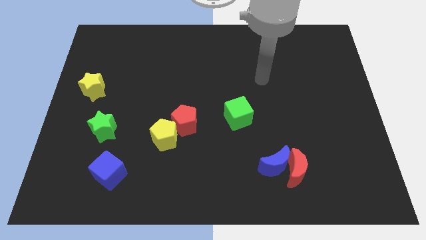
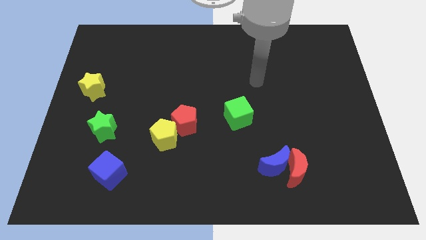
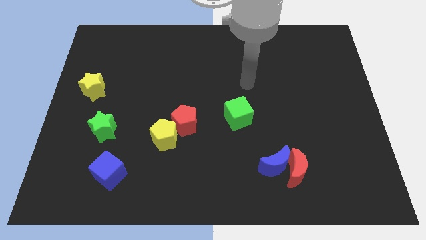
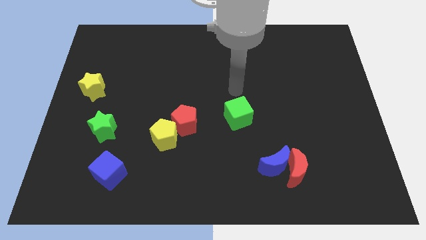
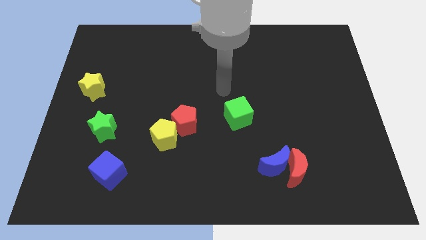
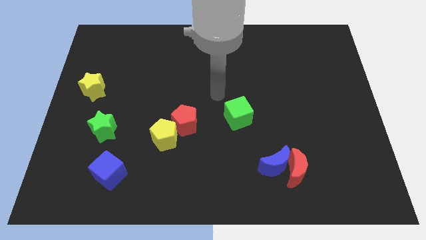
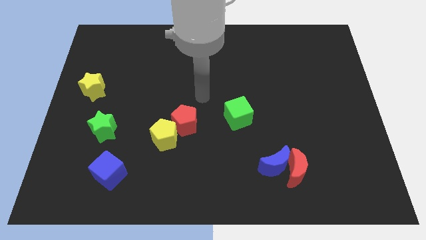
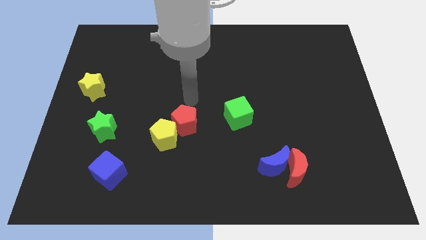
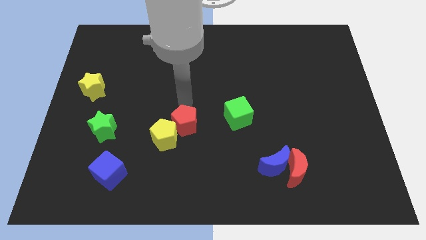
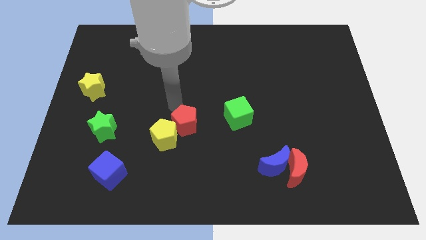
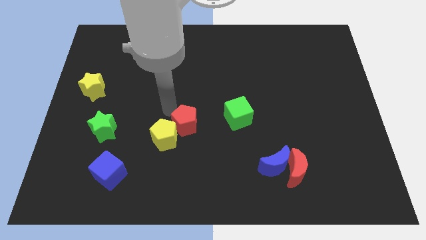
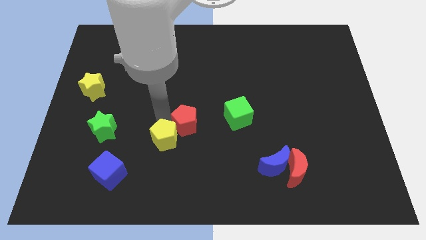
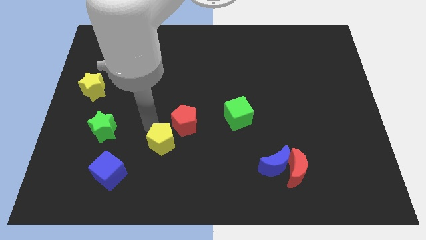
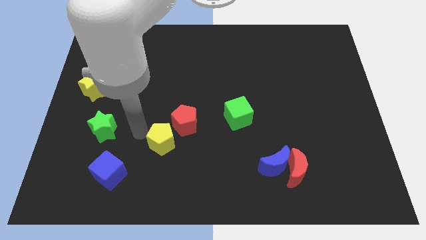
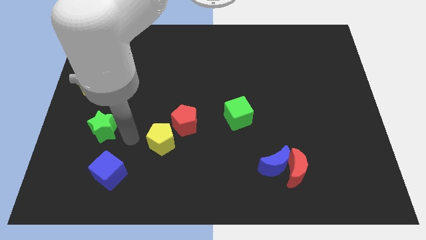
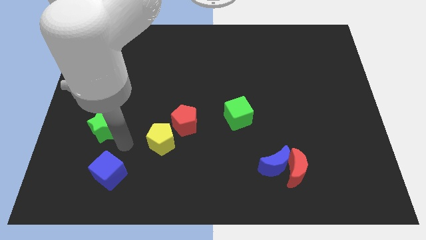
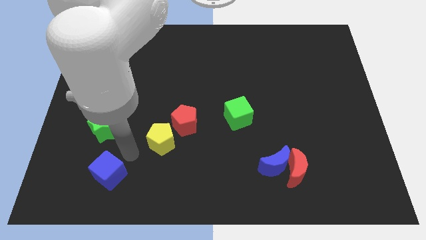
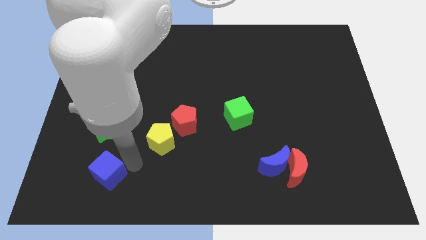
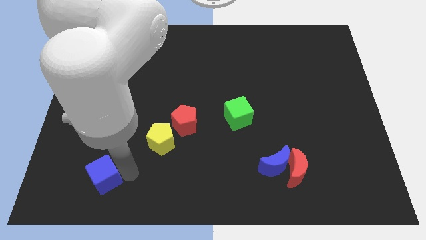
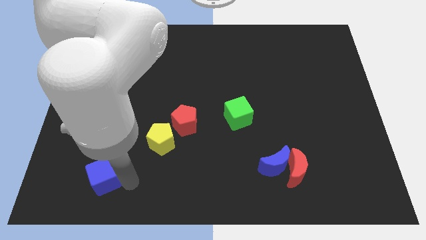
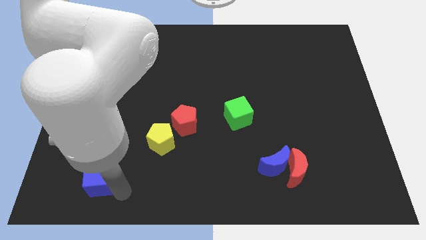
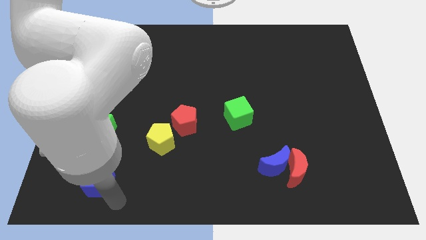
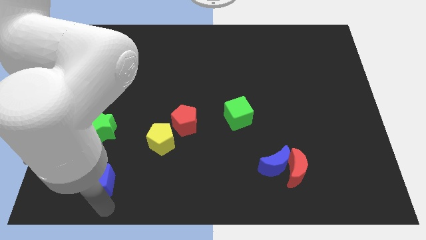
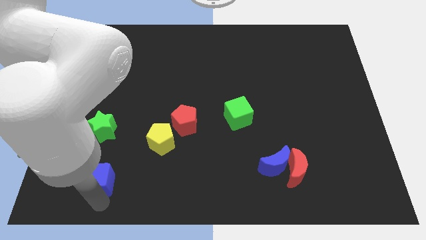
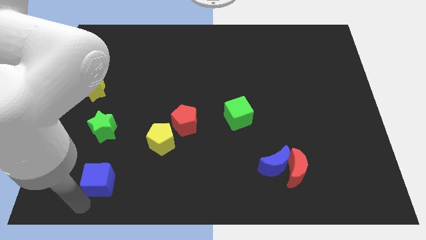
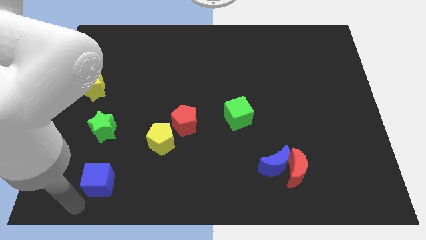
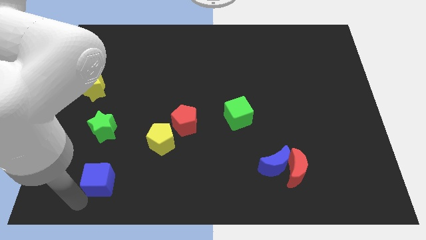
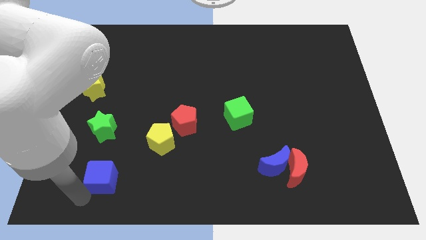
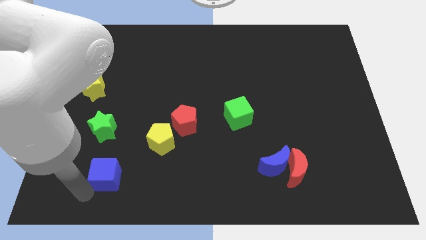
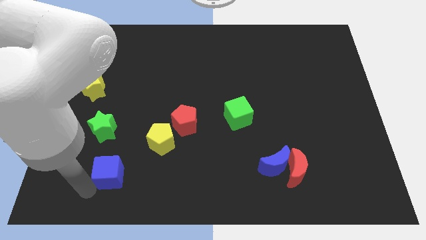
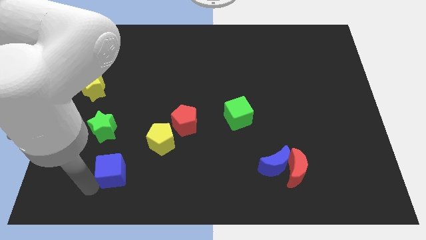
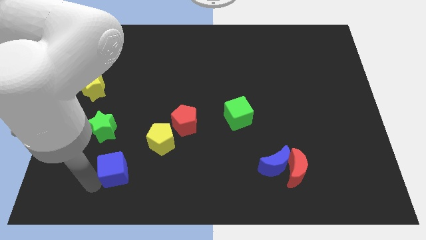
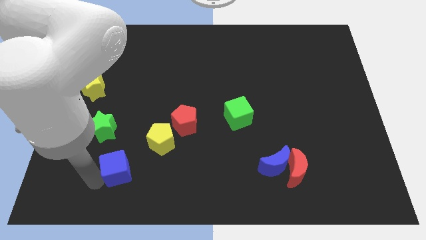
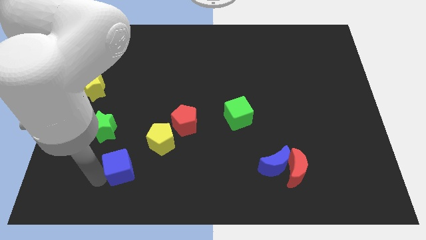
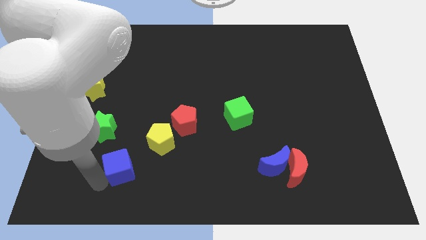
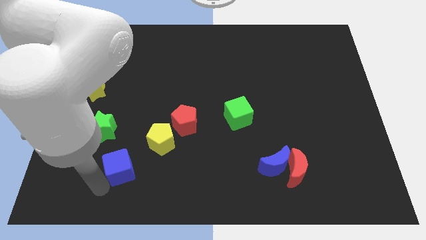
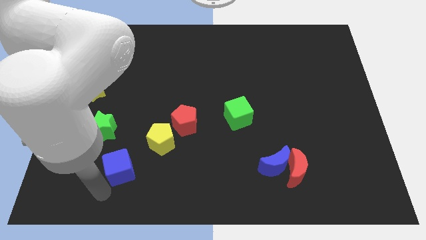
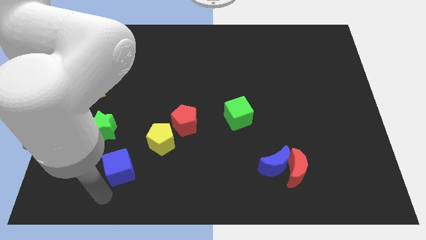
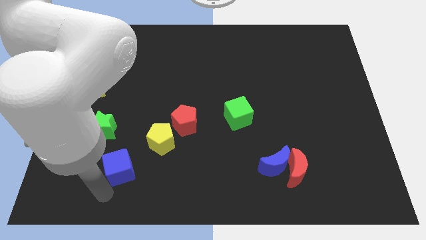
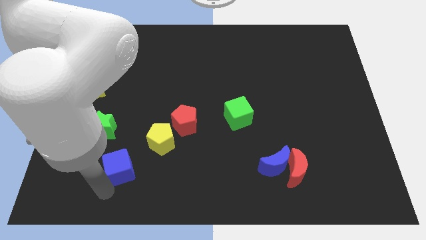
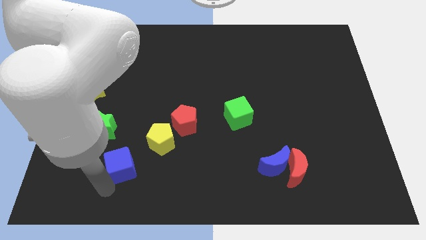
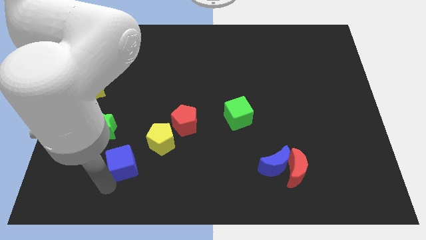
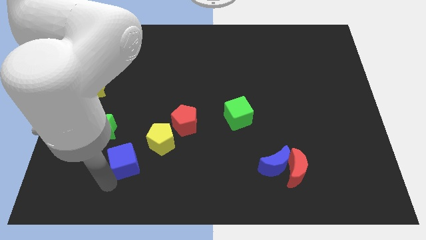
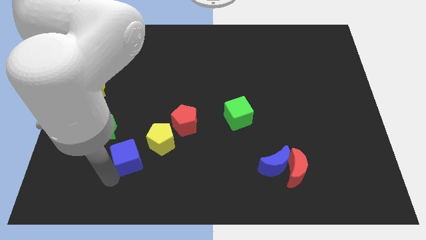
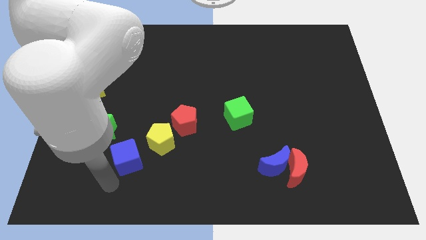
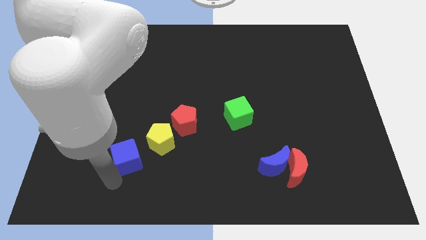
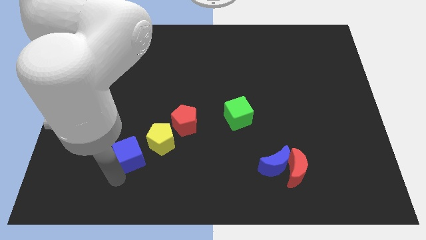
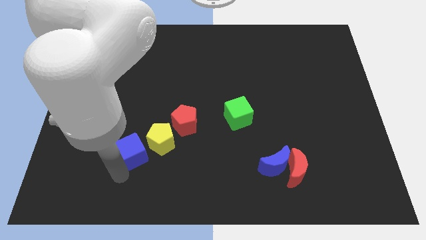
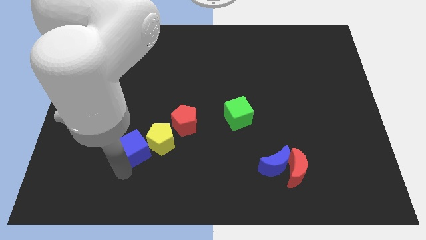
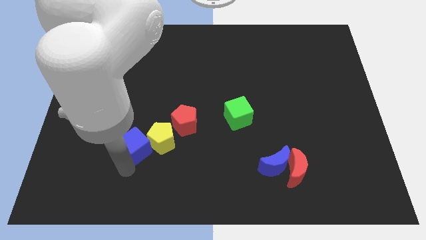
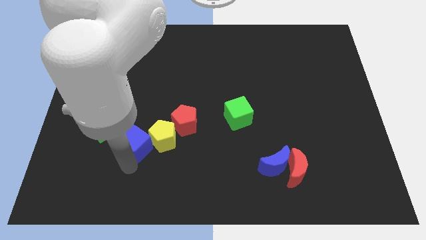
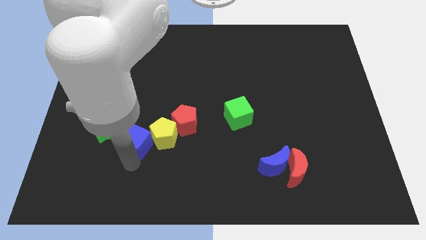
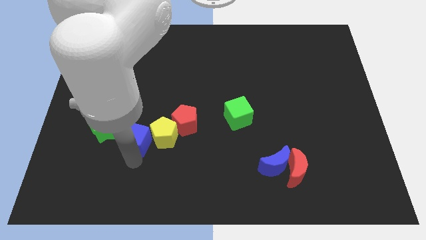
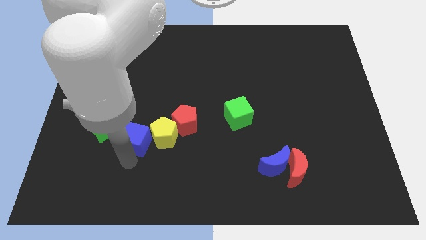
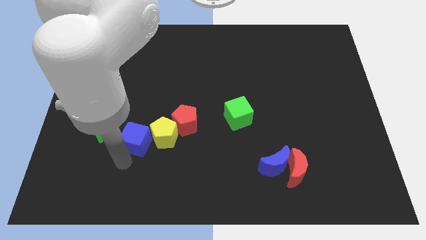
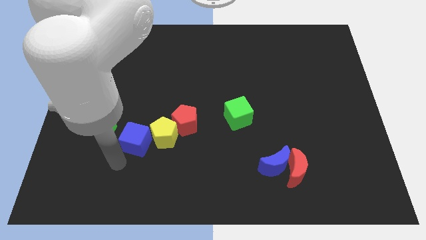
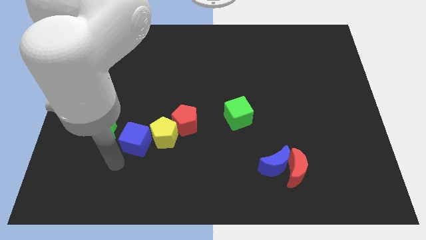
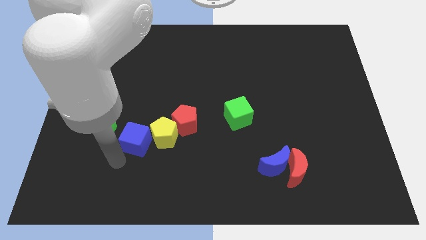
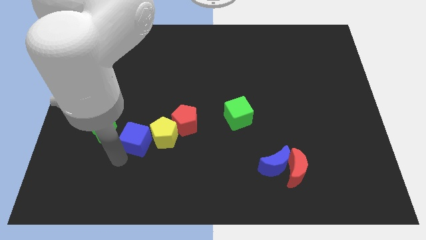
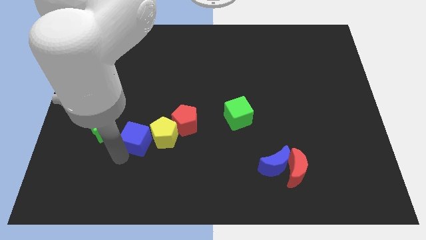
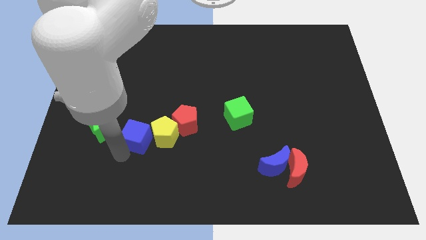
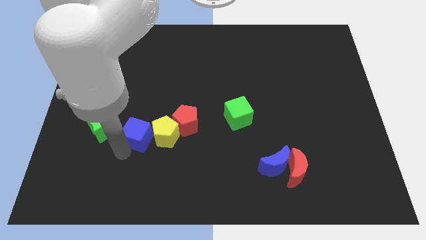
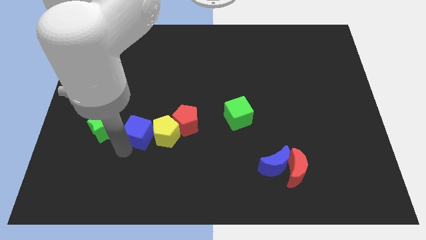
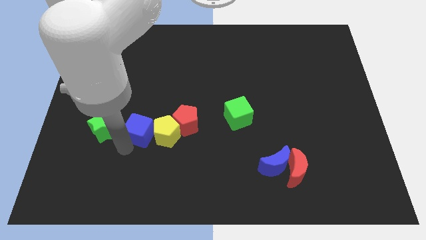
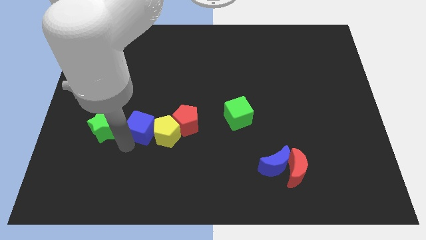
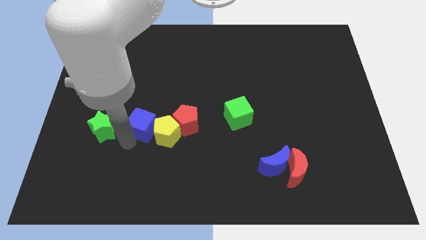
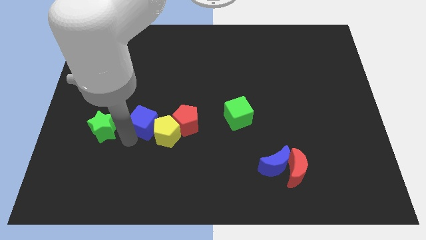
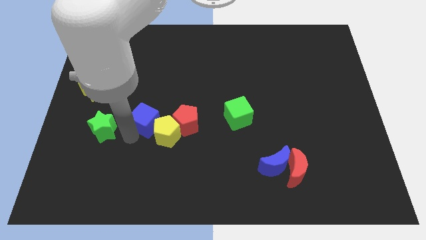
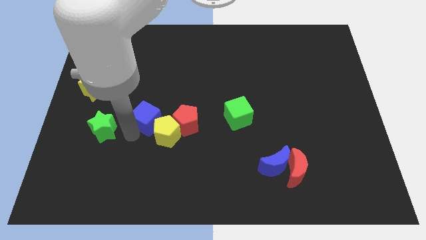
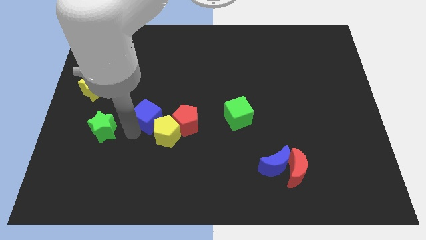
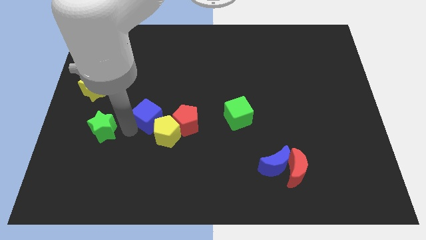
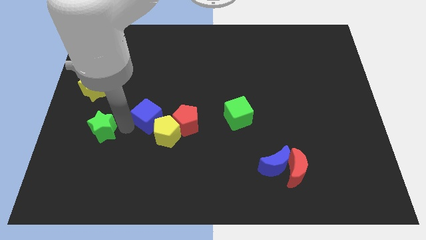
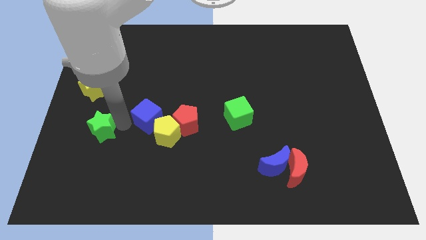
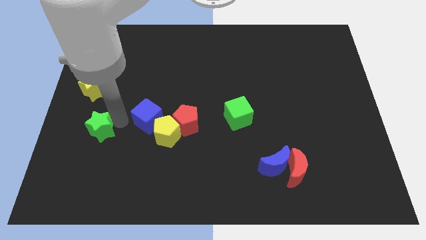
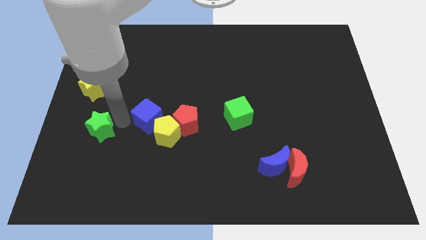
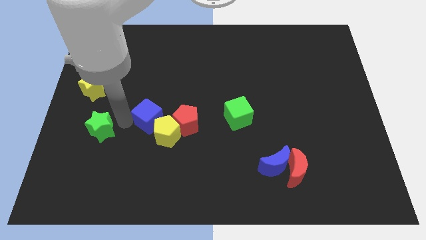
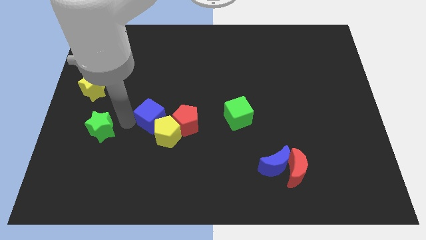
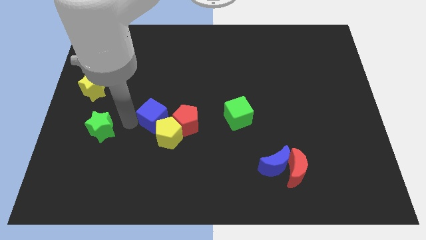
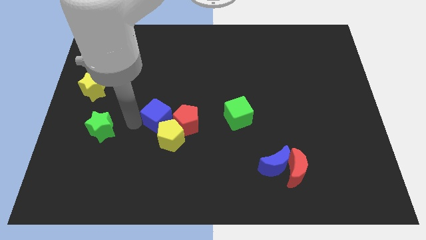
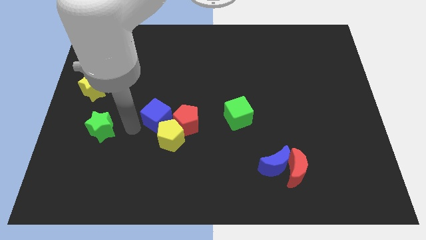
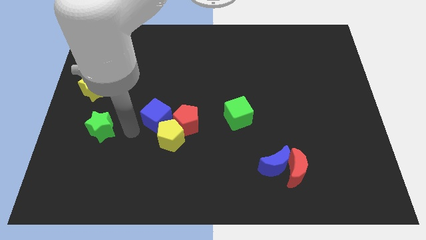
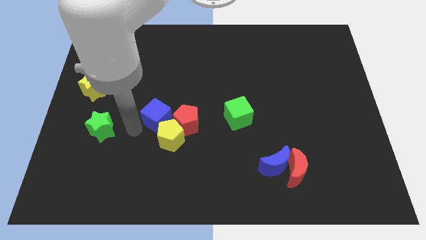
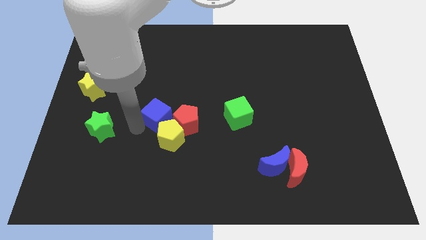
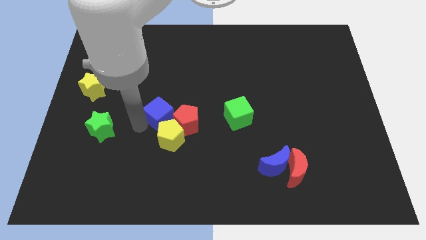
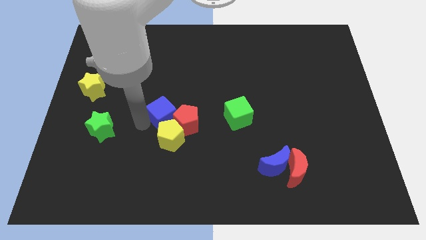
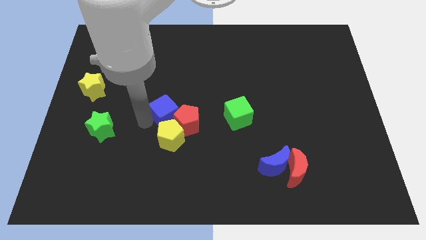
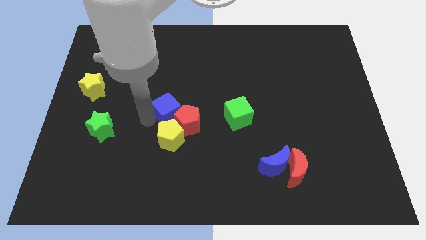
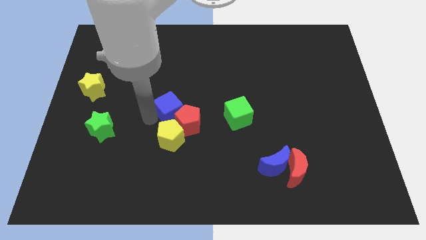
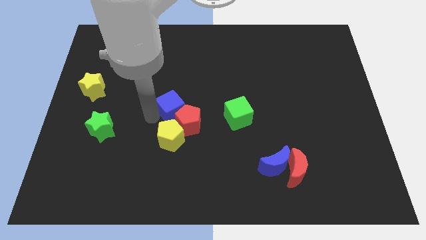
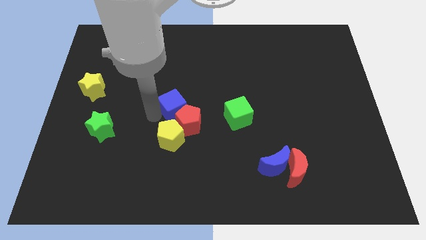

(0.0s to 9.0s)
move the blue cube upwards and to the right diagonally
